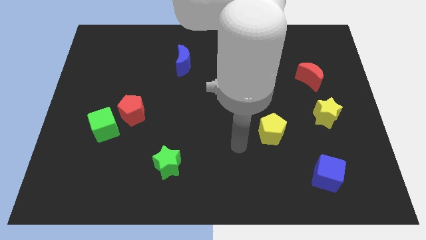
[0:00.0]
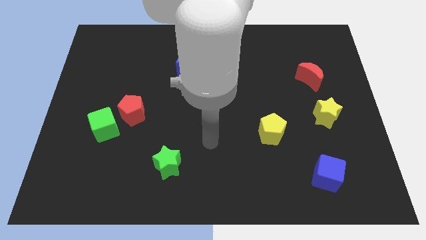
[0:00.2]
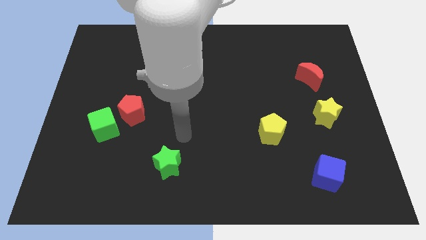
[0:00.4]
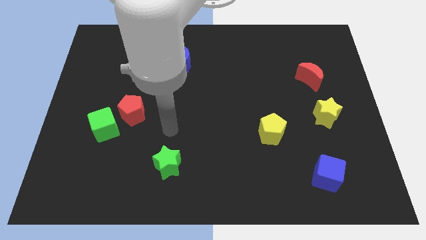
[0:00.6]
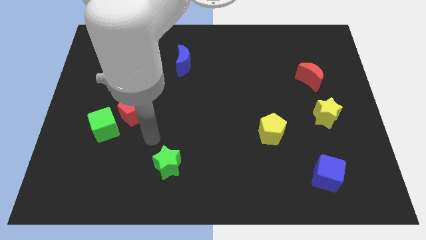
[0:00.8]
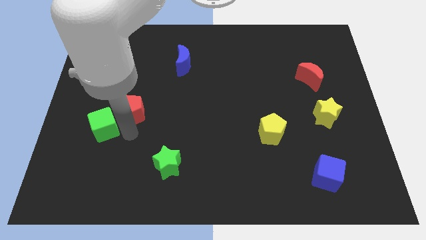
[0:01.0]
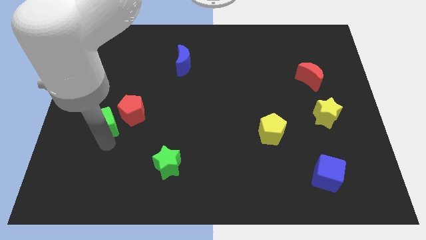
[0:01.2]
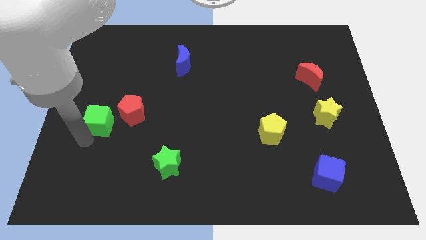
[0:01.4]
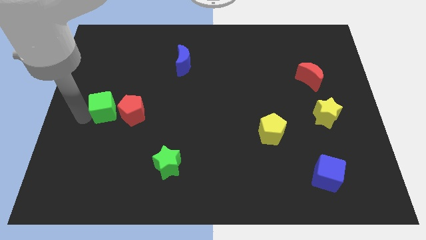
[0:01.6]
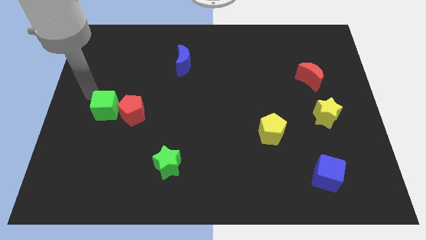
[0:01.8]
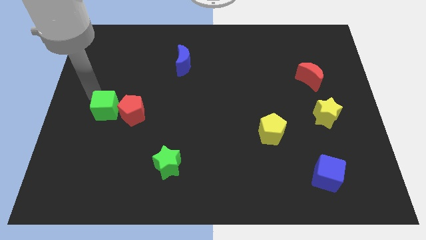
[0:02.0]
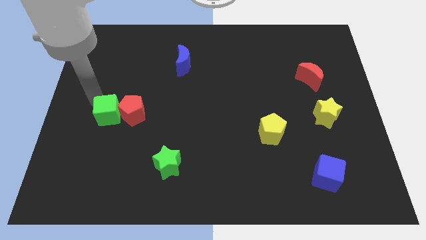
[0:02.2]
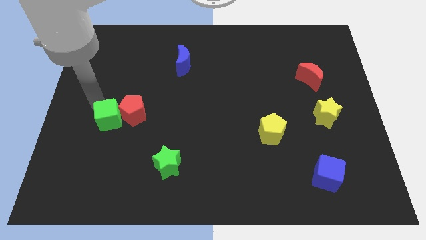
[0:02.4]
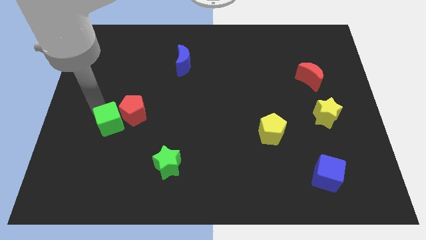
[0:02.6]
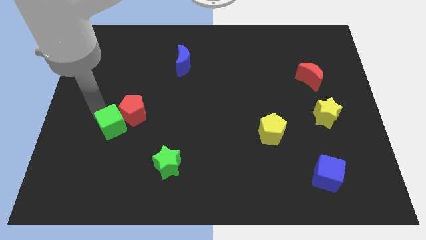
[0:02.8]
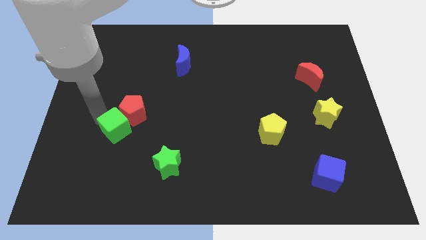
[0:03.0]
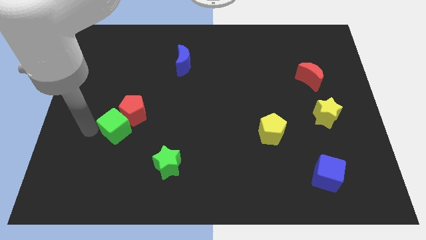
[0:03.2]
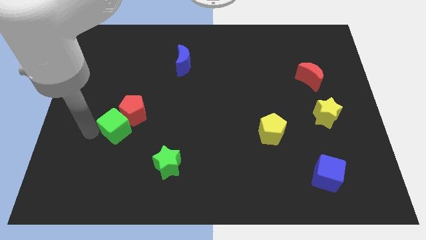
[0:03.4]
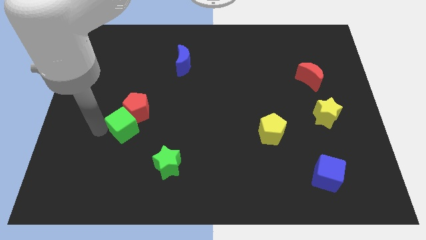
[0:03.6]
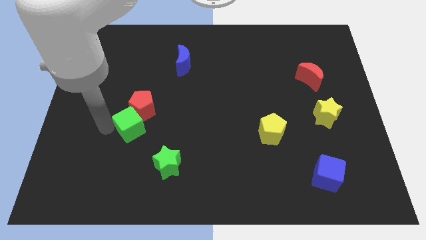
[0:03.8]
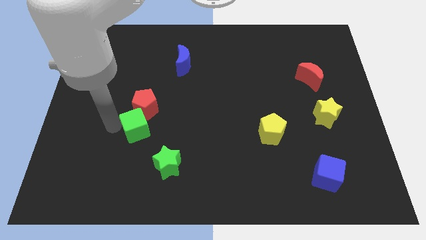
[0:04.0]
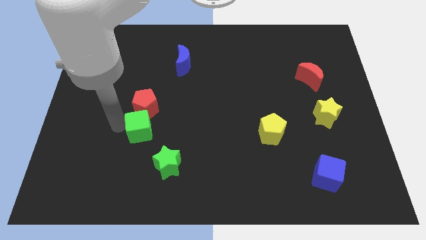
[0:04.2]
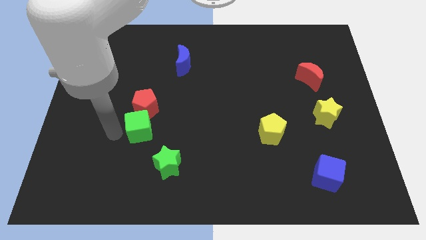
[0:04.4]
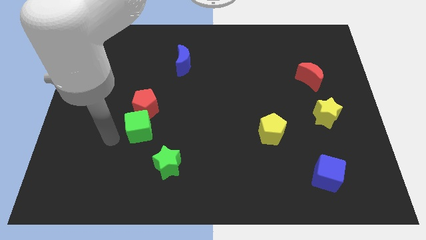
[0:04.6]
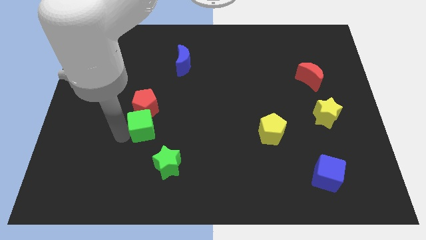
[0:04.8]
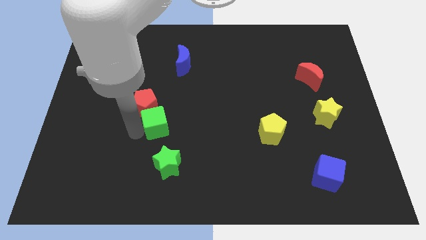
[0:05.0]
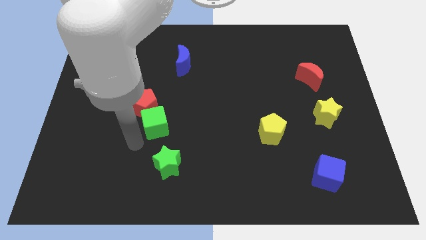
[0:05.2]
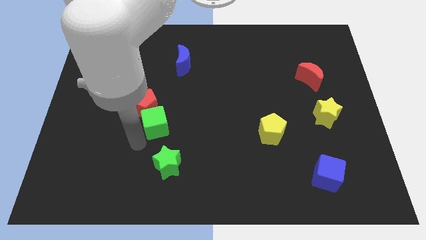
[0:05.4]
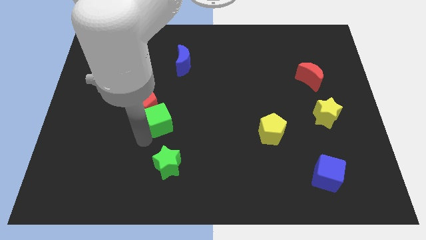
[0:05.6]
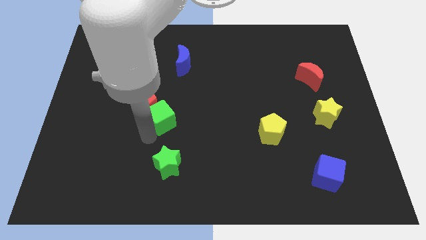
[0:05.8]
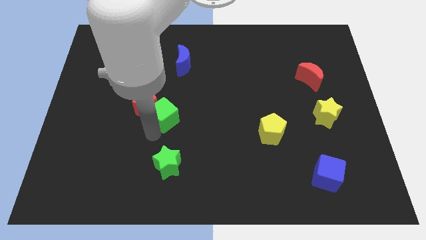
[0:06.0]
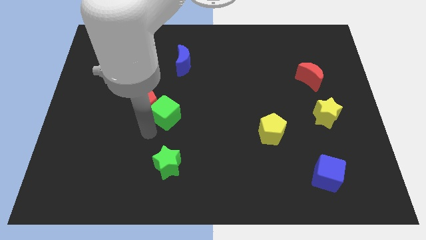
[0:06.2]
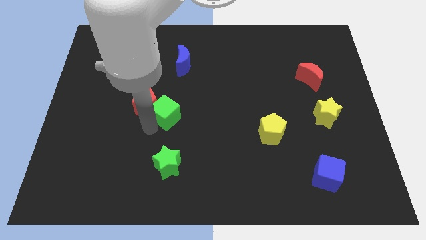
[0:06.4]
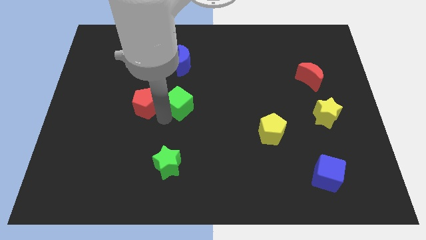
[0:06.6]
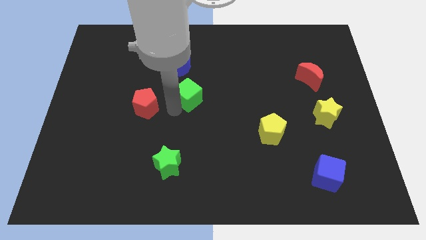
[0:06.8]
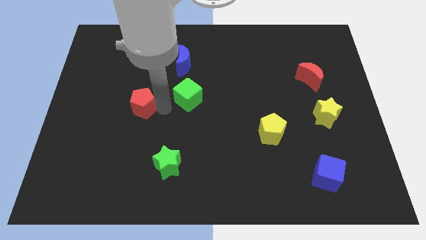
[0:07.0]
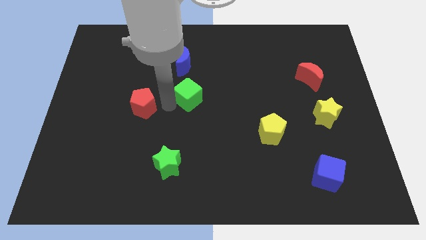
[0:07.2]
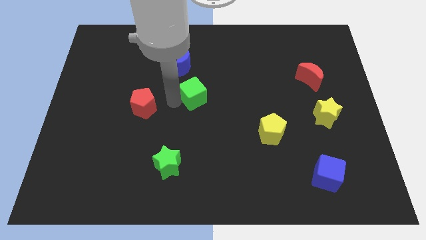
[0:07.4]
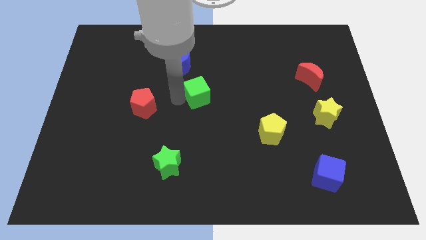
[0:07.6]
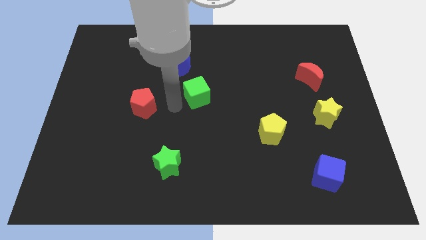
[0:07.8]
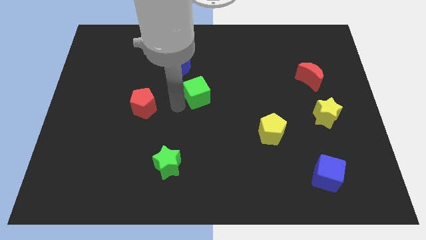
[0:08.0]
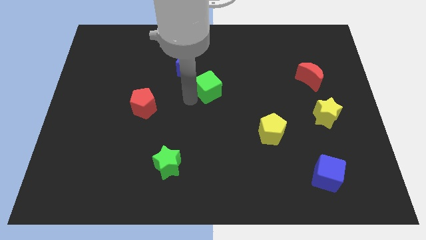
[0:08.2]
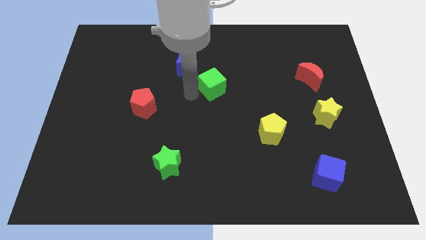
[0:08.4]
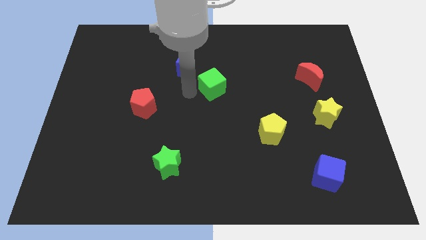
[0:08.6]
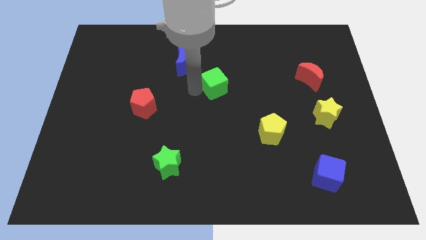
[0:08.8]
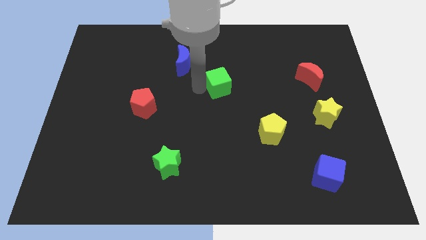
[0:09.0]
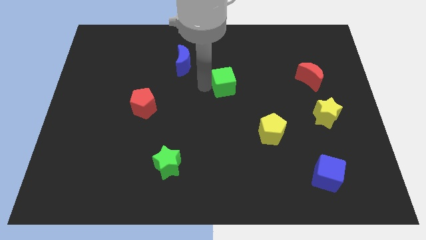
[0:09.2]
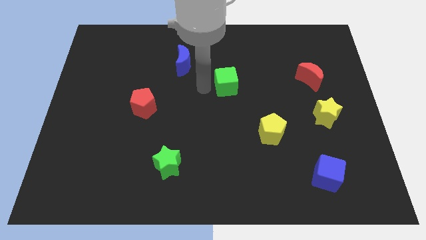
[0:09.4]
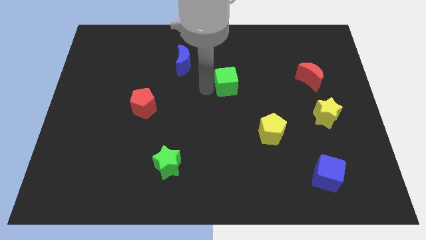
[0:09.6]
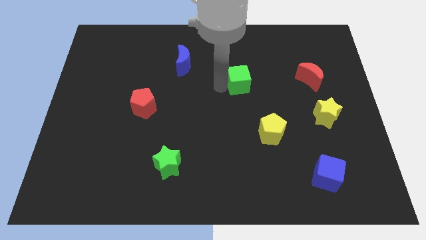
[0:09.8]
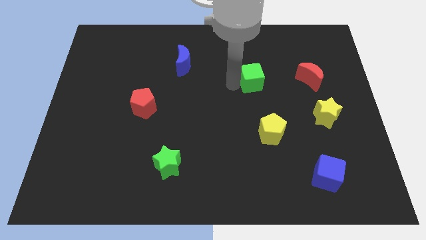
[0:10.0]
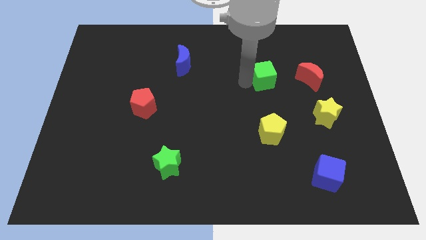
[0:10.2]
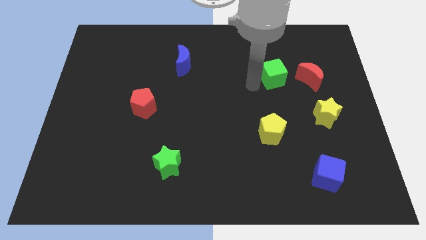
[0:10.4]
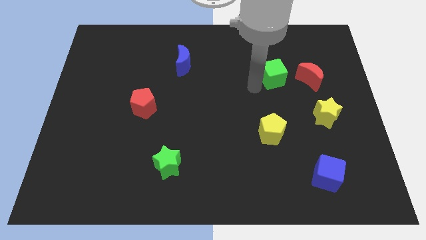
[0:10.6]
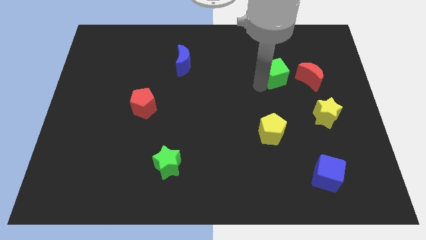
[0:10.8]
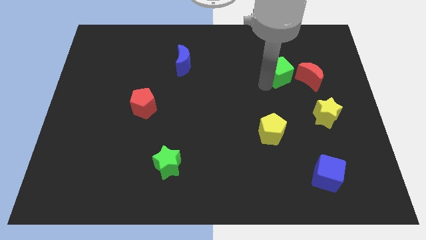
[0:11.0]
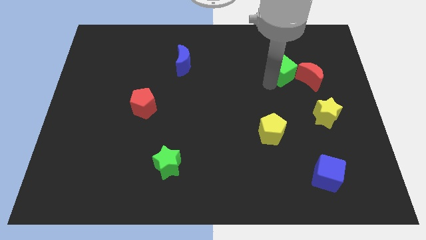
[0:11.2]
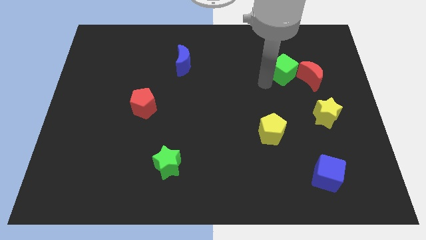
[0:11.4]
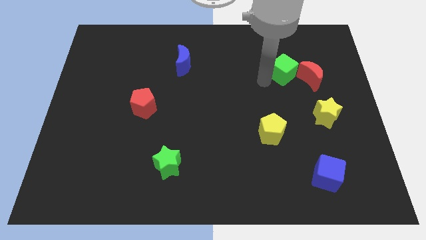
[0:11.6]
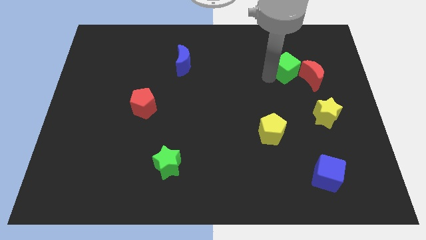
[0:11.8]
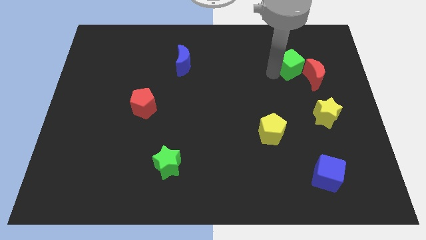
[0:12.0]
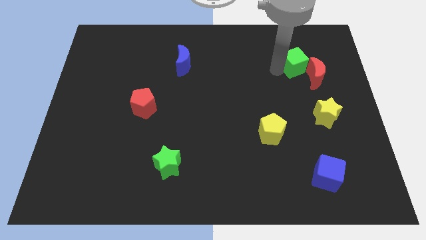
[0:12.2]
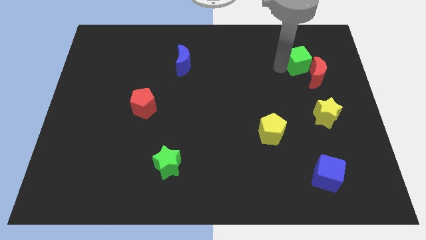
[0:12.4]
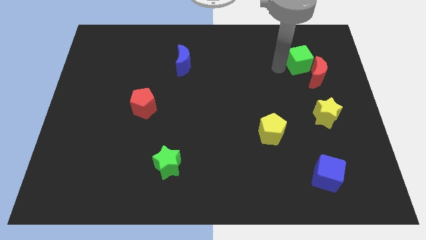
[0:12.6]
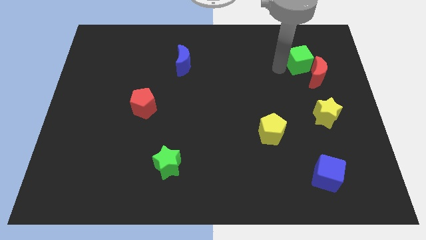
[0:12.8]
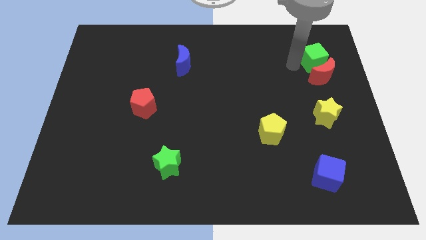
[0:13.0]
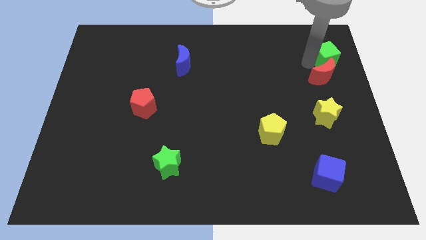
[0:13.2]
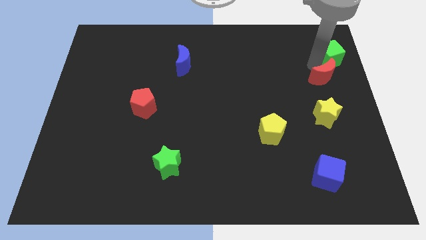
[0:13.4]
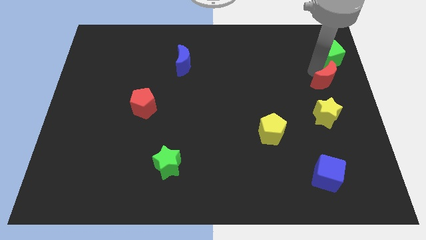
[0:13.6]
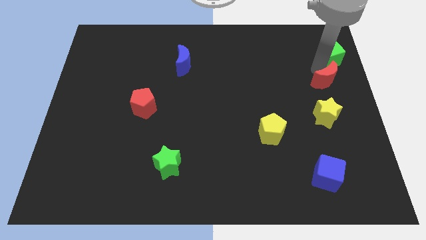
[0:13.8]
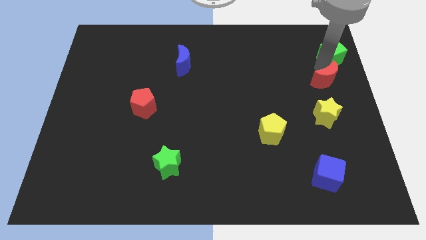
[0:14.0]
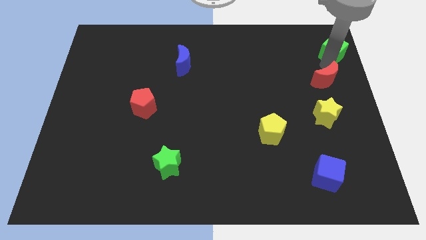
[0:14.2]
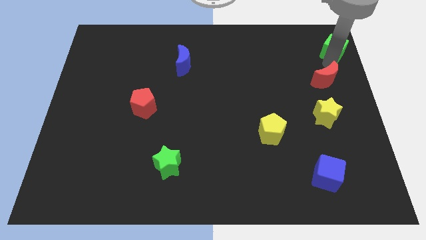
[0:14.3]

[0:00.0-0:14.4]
slide the green cube to the top right of the board

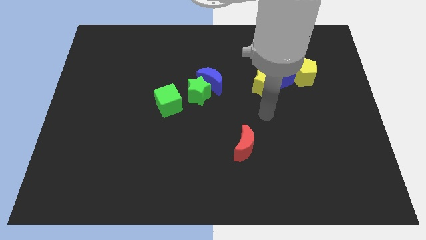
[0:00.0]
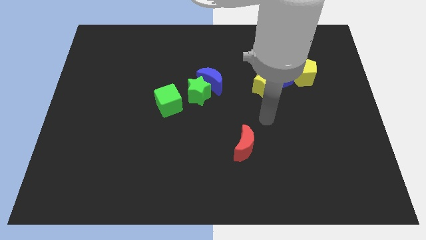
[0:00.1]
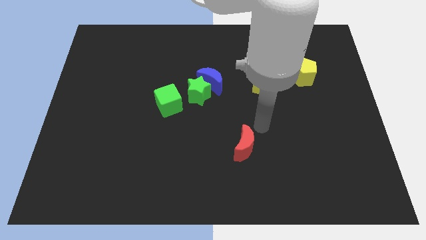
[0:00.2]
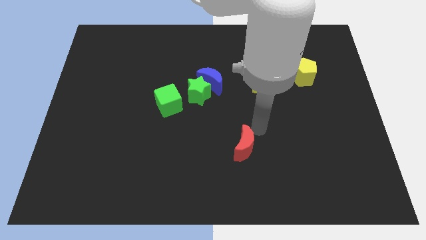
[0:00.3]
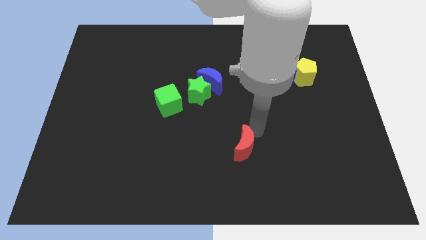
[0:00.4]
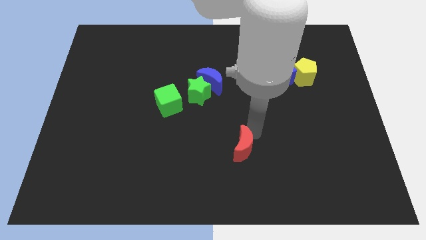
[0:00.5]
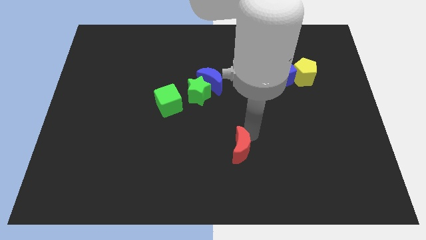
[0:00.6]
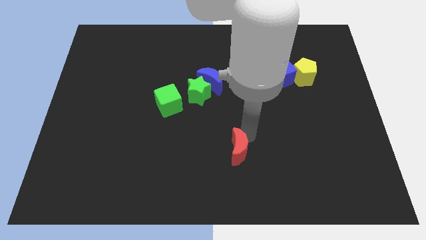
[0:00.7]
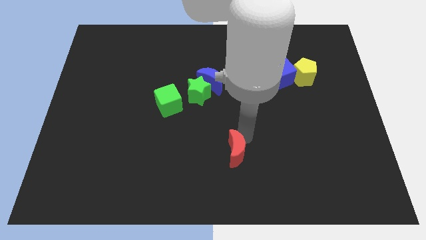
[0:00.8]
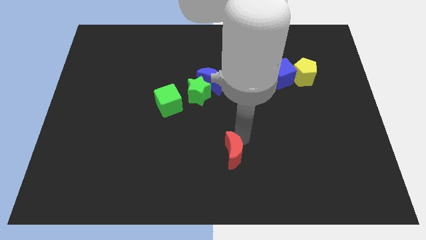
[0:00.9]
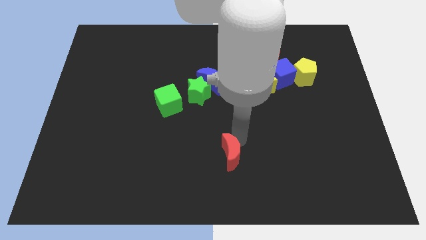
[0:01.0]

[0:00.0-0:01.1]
move the red moon to the bottom
